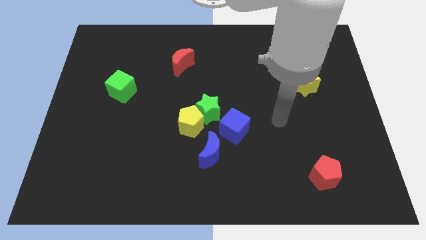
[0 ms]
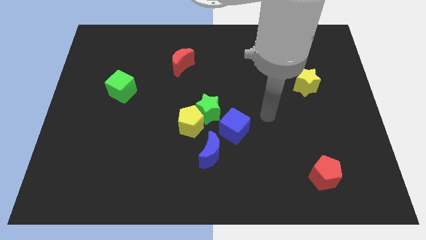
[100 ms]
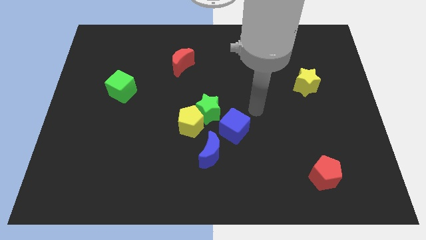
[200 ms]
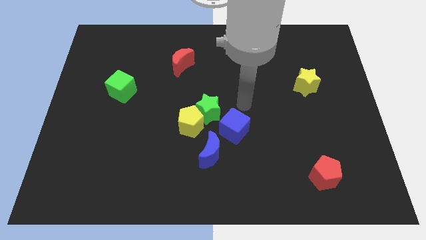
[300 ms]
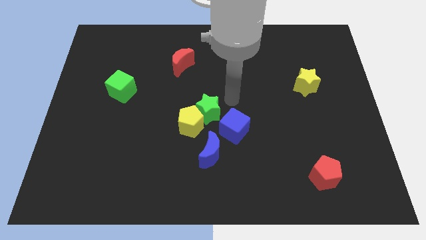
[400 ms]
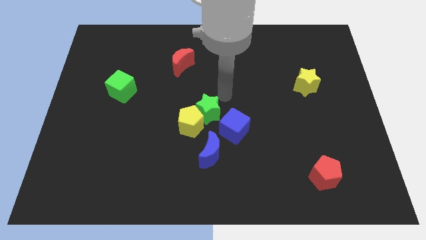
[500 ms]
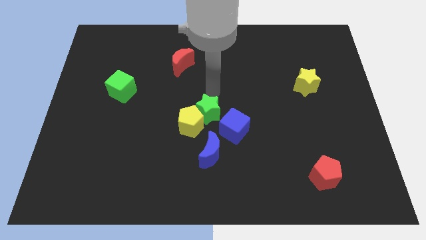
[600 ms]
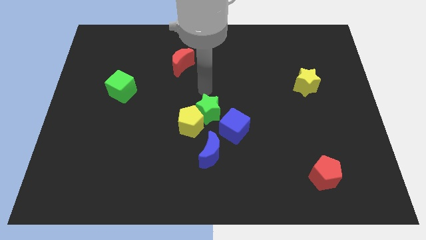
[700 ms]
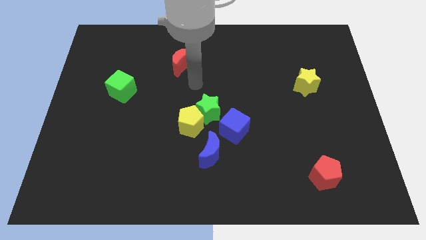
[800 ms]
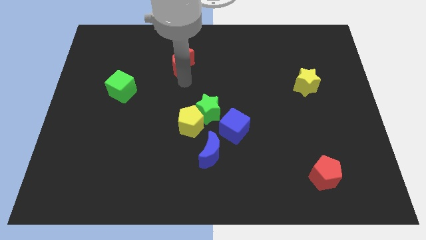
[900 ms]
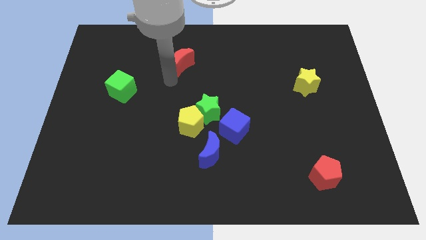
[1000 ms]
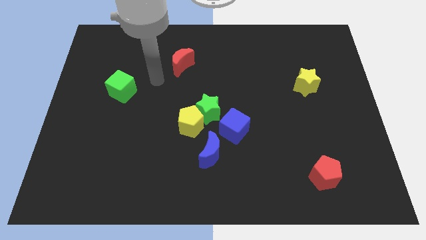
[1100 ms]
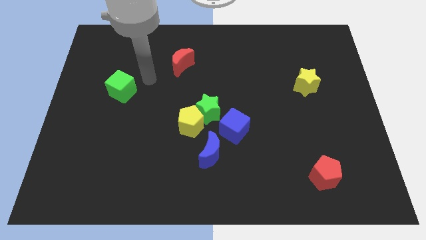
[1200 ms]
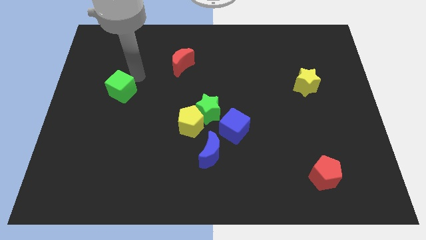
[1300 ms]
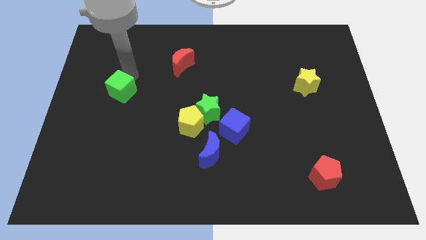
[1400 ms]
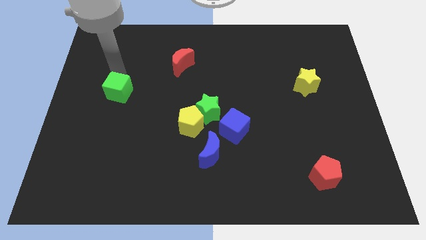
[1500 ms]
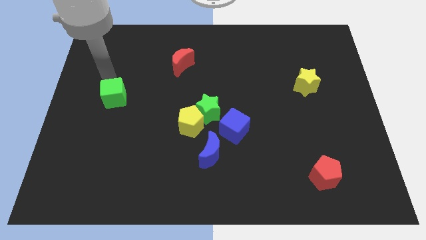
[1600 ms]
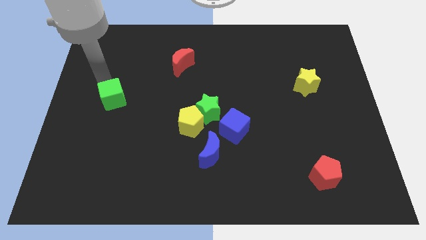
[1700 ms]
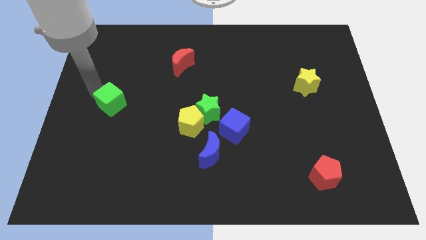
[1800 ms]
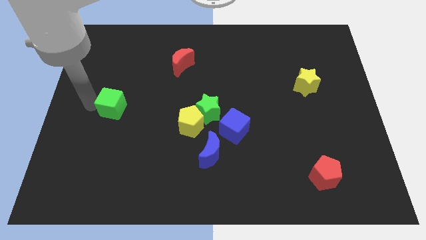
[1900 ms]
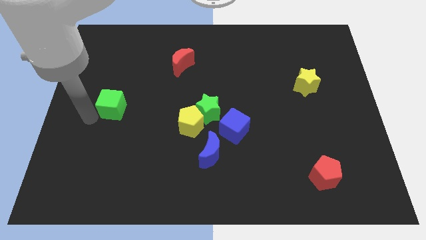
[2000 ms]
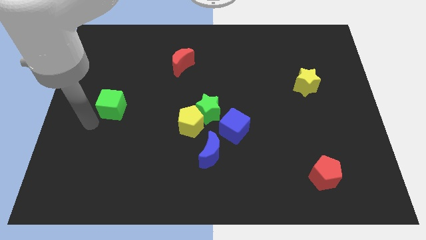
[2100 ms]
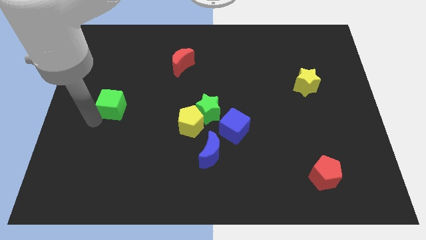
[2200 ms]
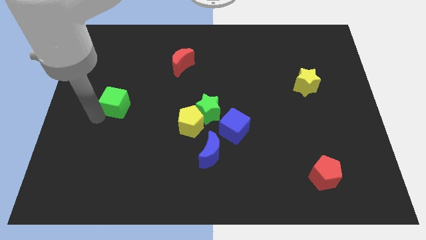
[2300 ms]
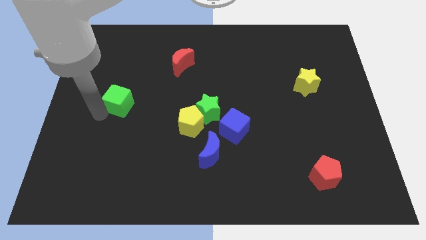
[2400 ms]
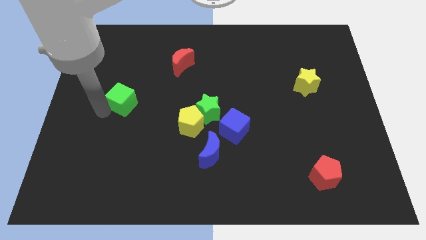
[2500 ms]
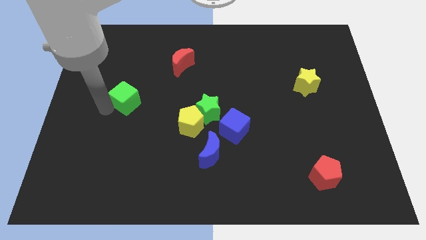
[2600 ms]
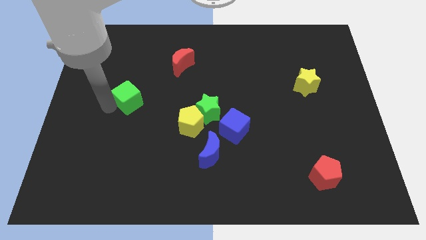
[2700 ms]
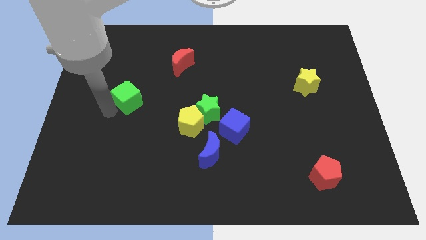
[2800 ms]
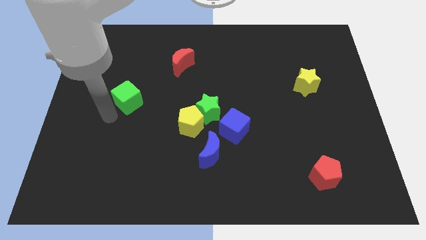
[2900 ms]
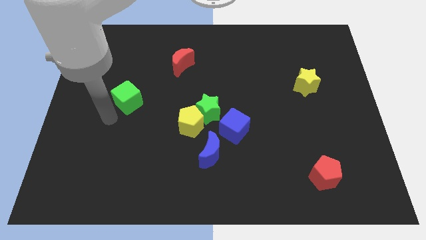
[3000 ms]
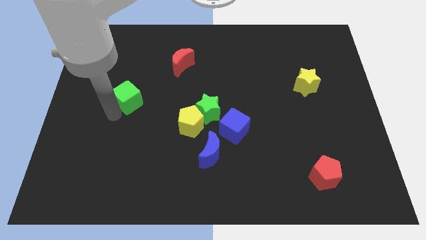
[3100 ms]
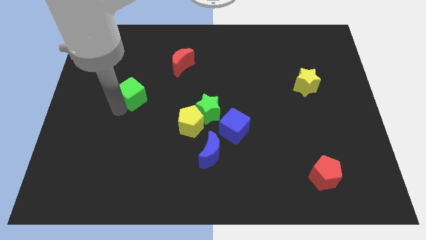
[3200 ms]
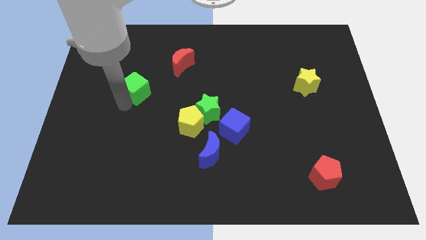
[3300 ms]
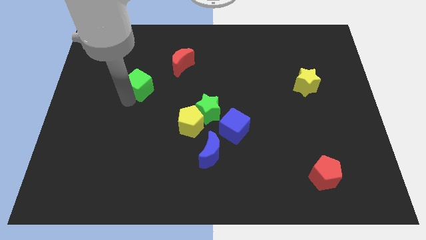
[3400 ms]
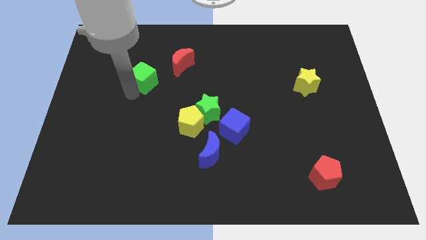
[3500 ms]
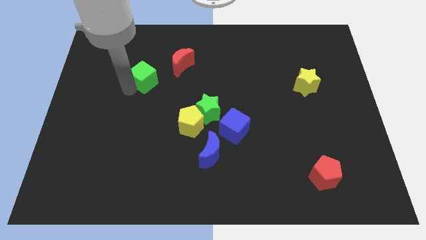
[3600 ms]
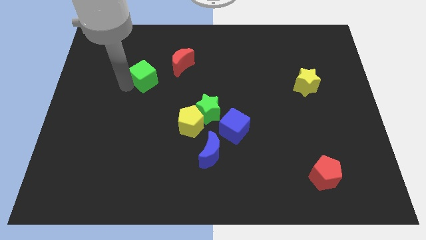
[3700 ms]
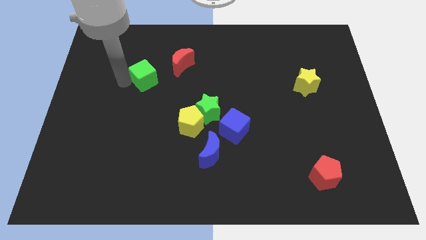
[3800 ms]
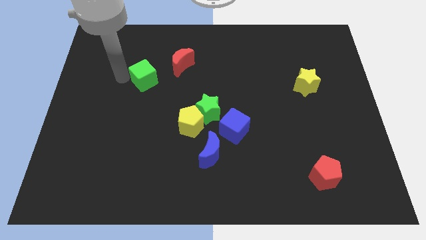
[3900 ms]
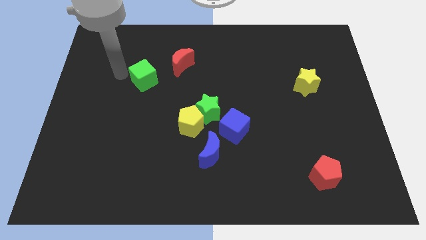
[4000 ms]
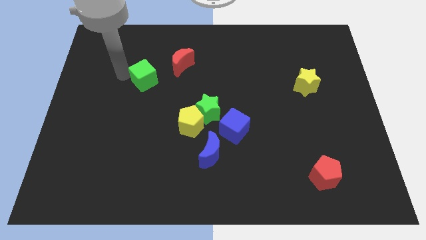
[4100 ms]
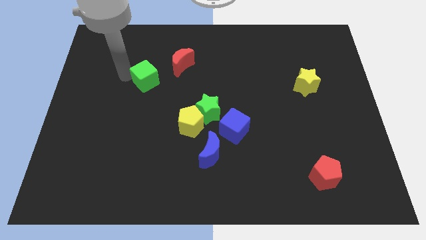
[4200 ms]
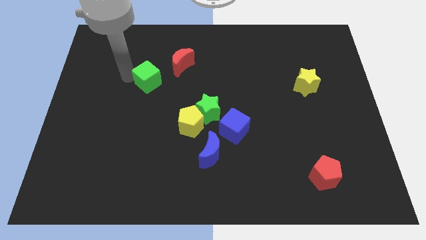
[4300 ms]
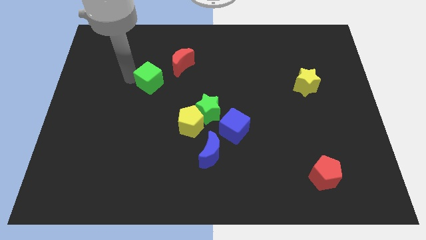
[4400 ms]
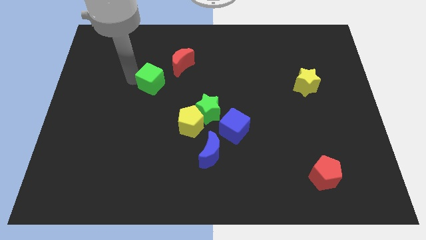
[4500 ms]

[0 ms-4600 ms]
slide the green cube a little bit right

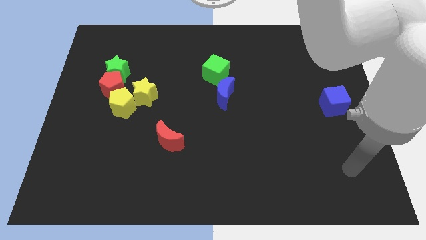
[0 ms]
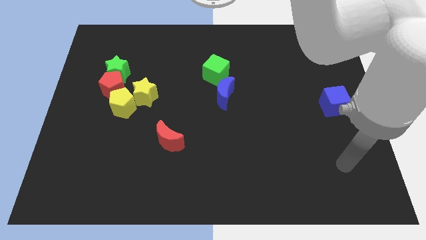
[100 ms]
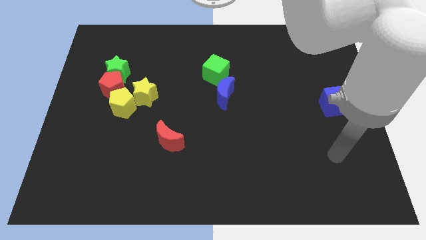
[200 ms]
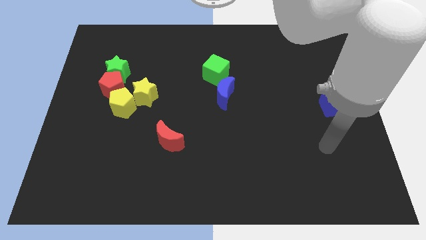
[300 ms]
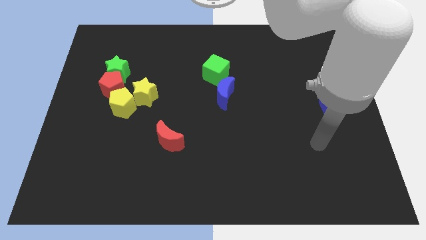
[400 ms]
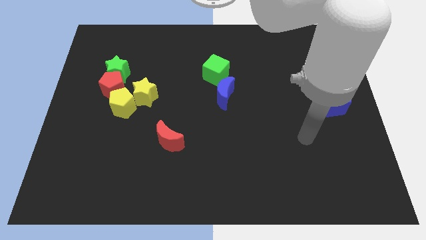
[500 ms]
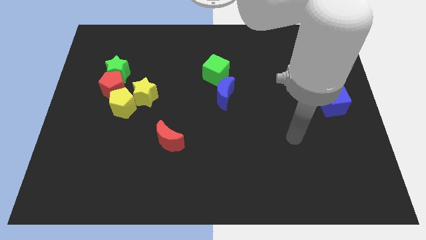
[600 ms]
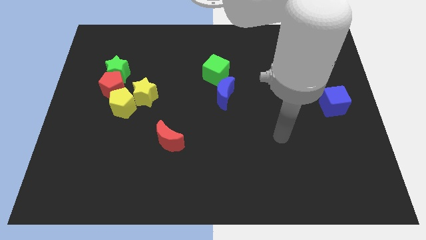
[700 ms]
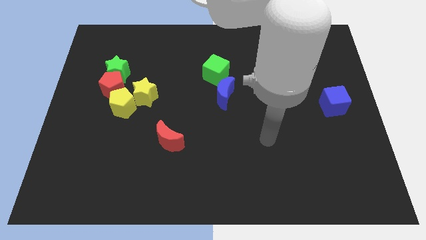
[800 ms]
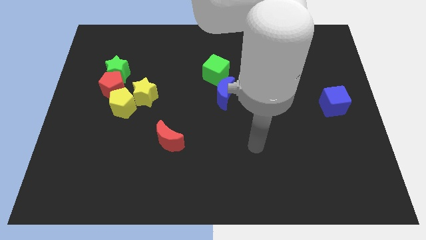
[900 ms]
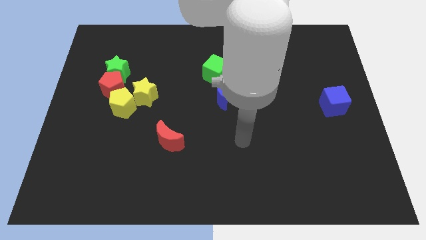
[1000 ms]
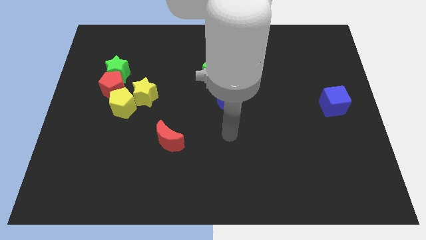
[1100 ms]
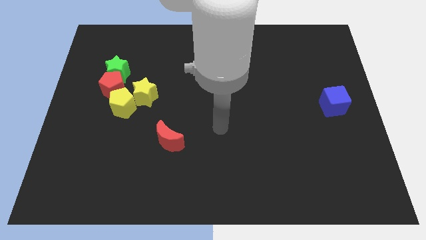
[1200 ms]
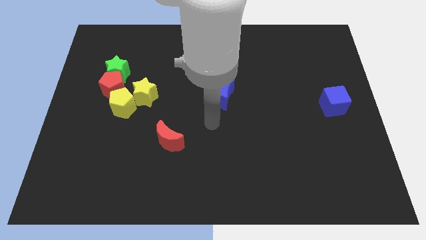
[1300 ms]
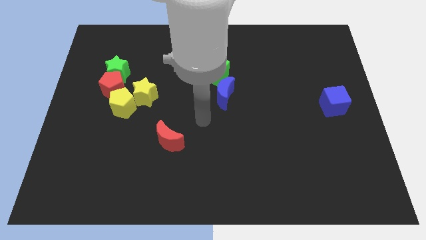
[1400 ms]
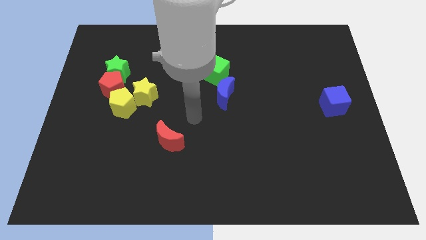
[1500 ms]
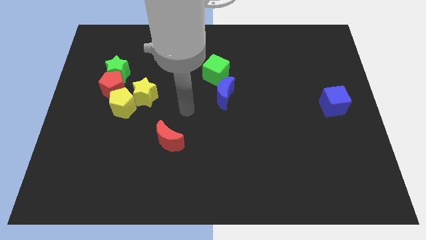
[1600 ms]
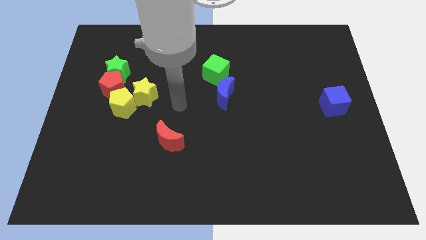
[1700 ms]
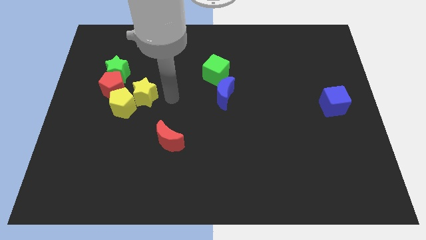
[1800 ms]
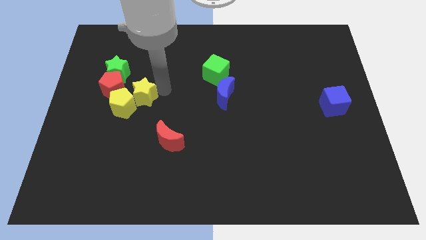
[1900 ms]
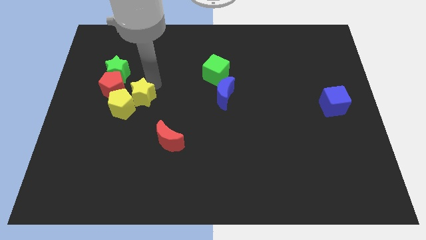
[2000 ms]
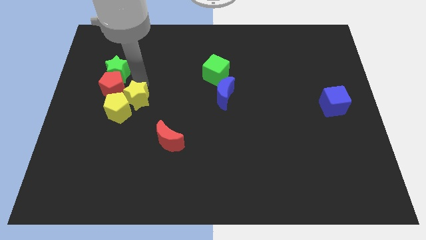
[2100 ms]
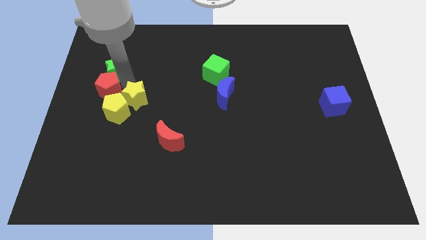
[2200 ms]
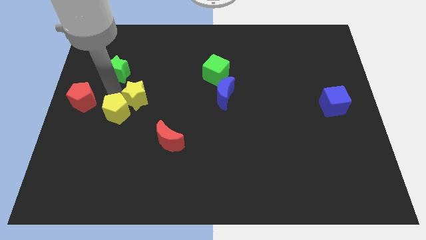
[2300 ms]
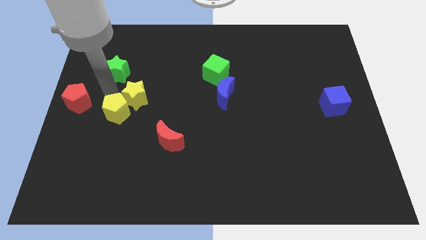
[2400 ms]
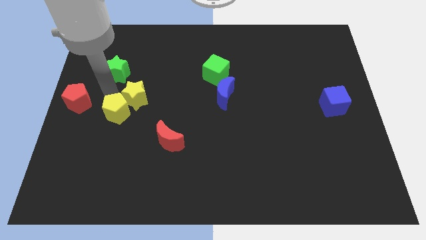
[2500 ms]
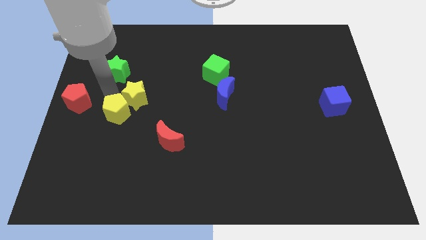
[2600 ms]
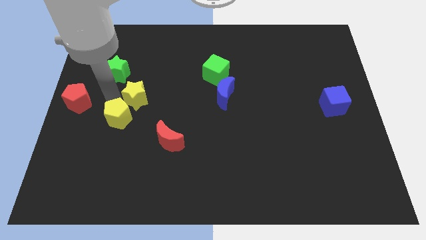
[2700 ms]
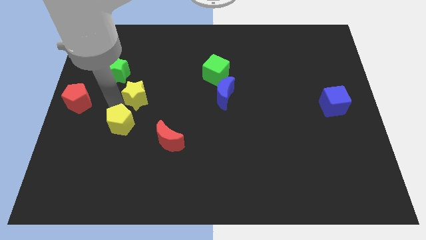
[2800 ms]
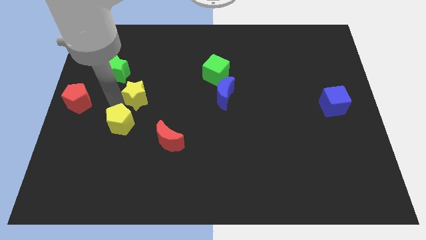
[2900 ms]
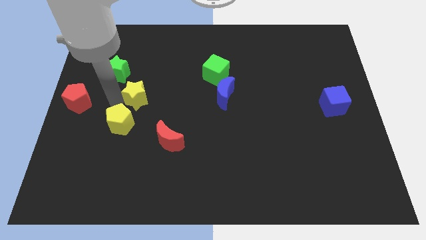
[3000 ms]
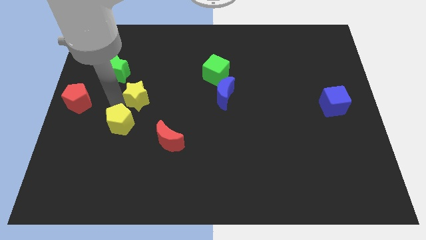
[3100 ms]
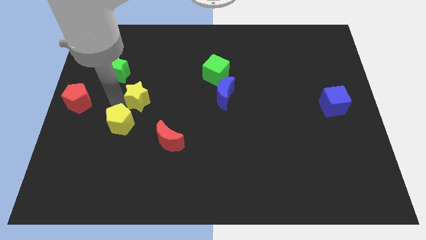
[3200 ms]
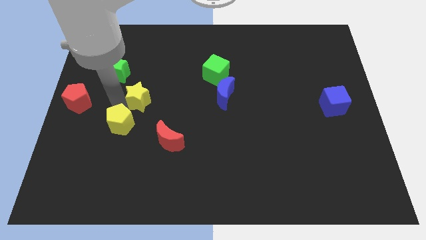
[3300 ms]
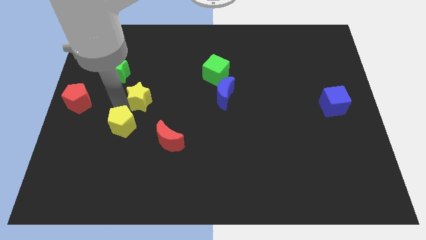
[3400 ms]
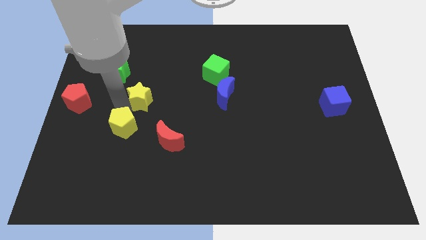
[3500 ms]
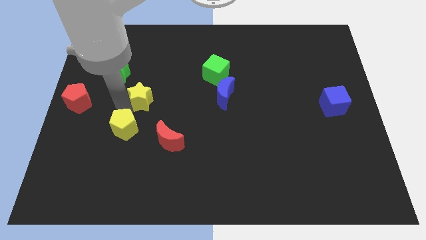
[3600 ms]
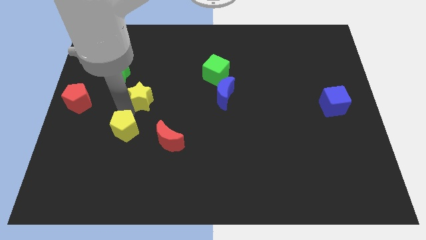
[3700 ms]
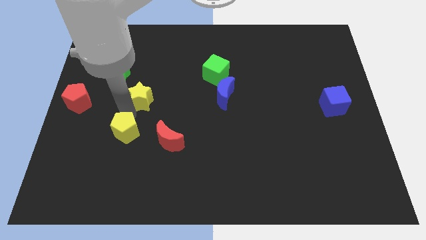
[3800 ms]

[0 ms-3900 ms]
move the yellow pentagon a bit downwards
